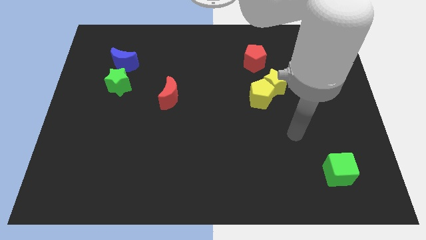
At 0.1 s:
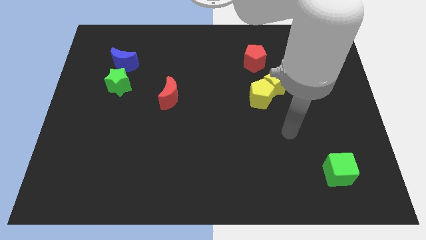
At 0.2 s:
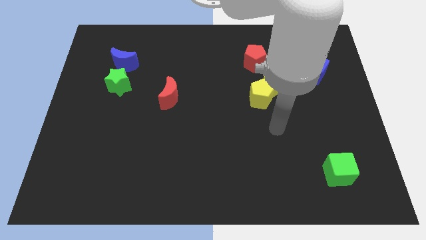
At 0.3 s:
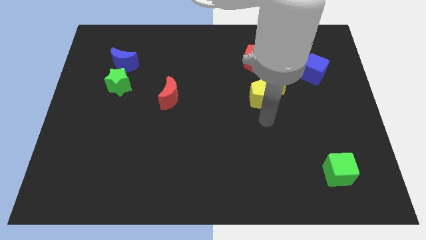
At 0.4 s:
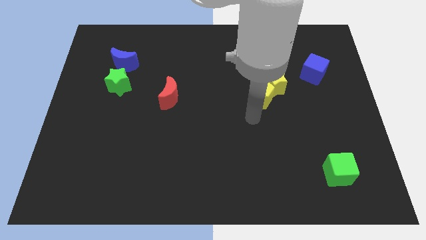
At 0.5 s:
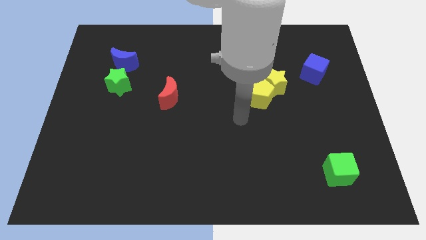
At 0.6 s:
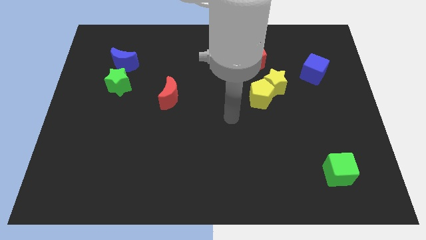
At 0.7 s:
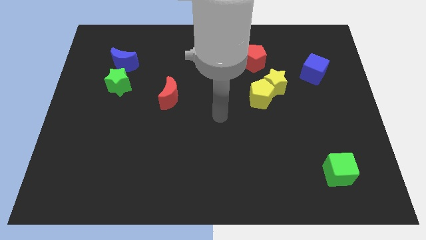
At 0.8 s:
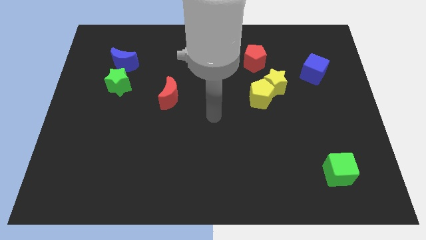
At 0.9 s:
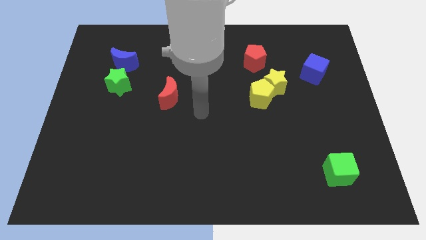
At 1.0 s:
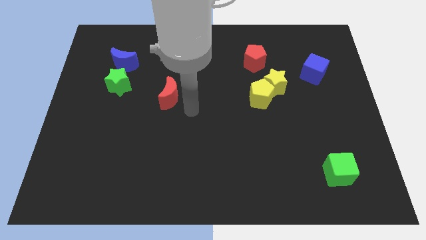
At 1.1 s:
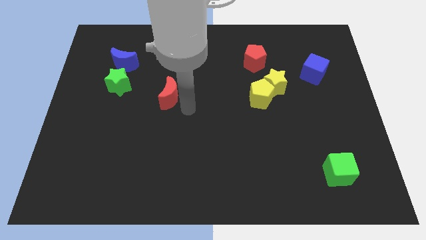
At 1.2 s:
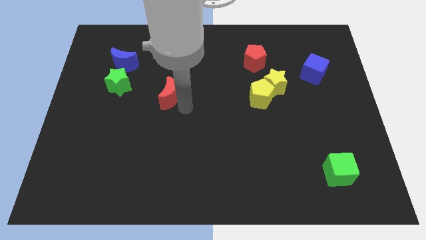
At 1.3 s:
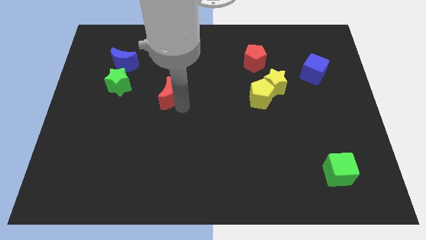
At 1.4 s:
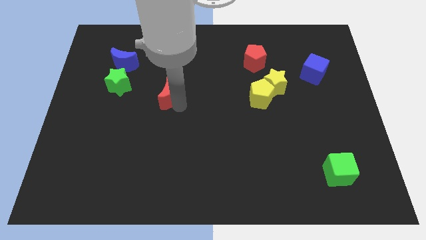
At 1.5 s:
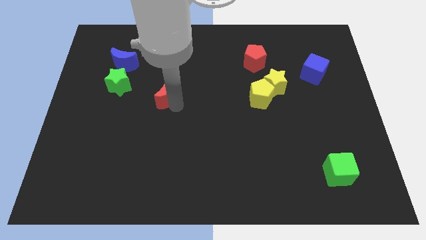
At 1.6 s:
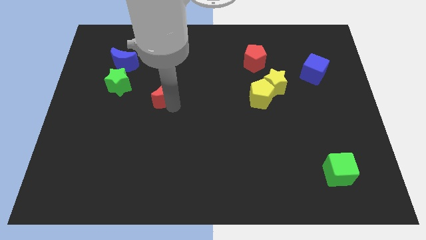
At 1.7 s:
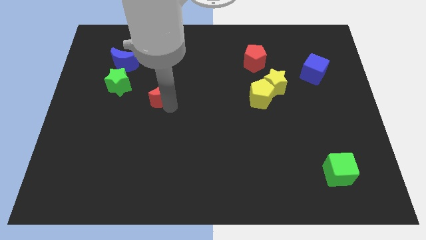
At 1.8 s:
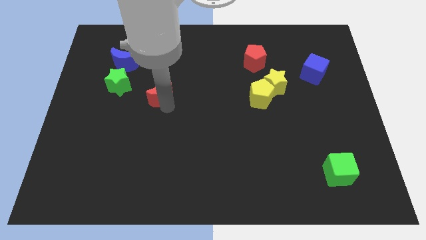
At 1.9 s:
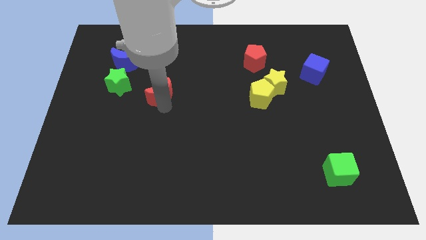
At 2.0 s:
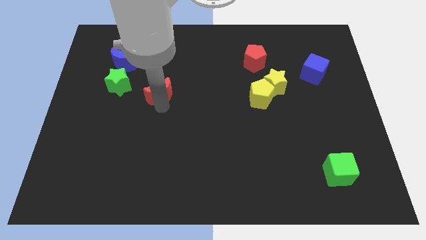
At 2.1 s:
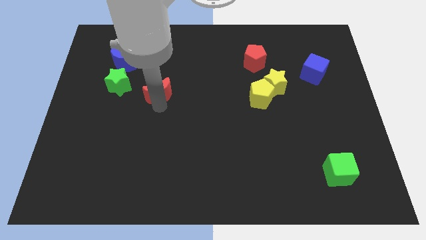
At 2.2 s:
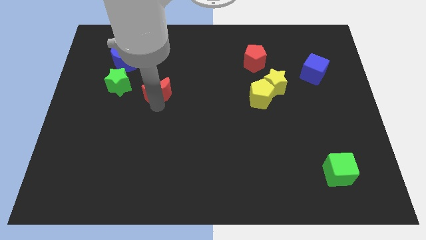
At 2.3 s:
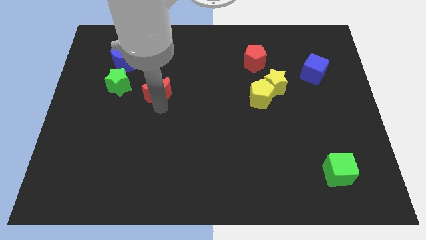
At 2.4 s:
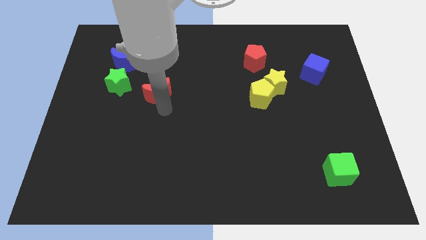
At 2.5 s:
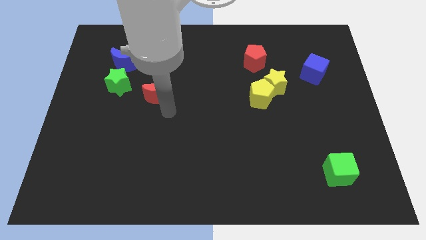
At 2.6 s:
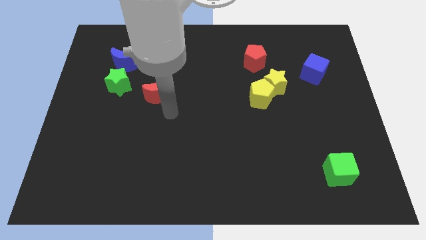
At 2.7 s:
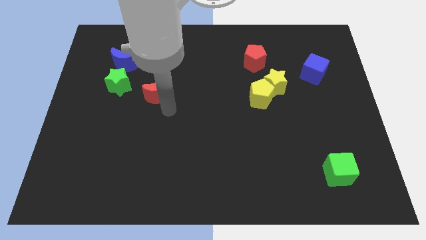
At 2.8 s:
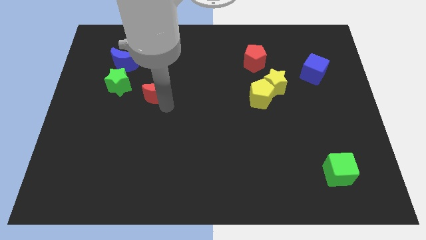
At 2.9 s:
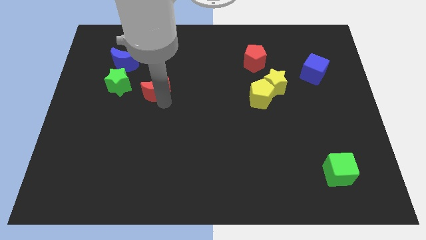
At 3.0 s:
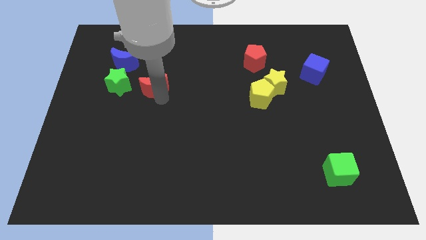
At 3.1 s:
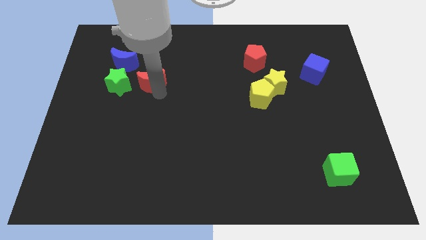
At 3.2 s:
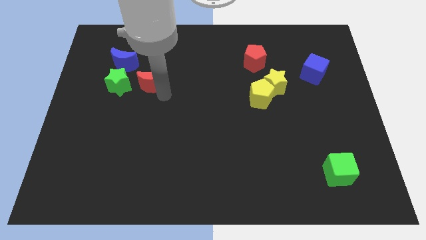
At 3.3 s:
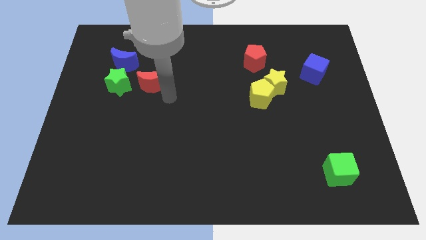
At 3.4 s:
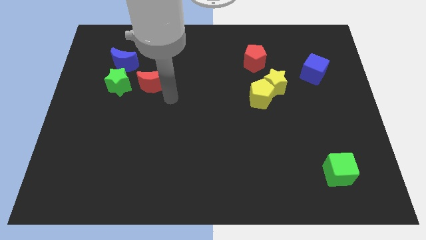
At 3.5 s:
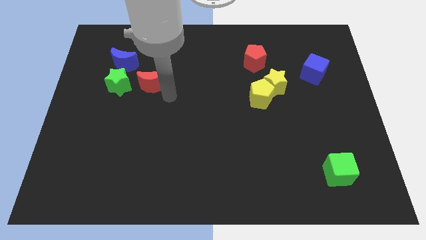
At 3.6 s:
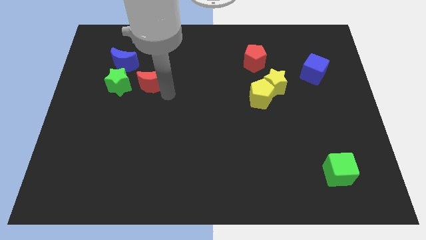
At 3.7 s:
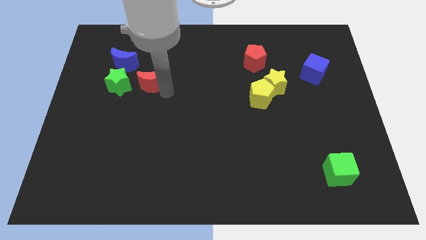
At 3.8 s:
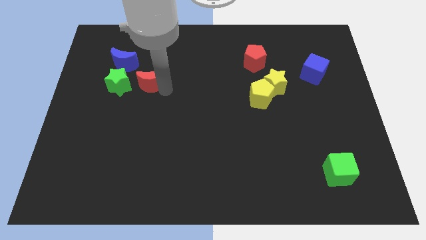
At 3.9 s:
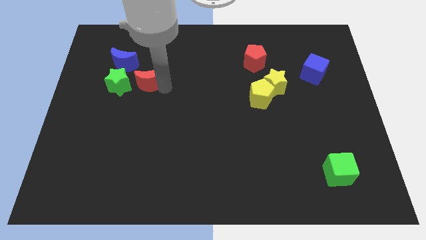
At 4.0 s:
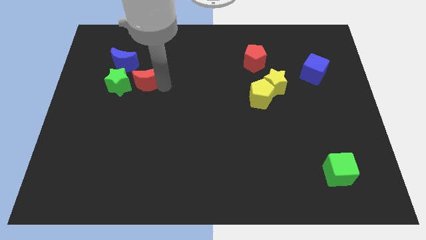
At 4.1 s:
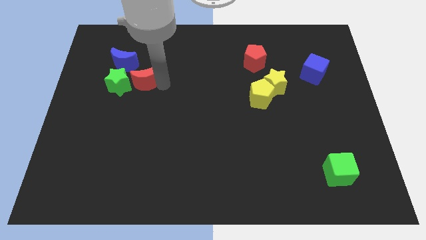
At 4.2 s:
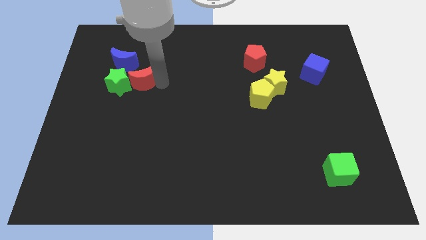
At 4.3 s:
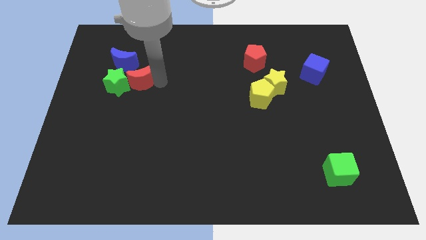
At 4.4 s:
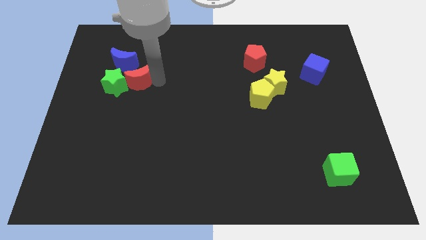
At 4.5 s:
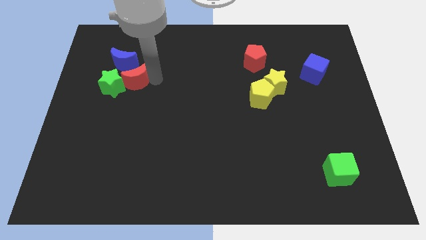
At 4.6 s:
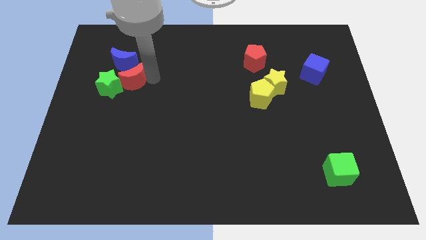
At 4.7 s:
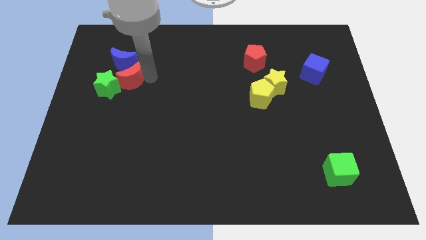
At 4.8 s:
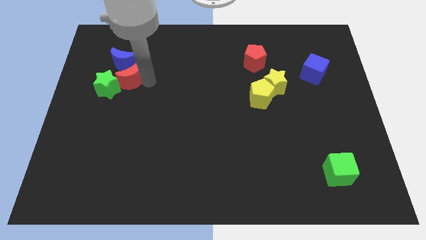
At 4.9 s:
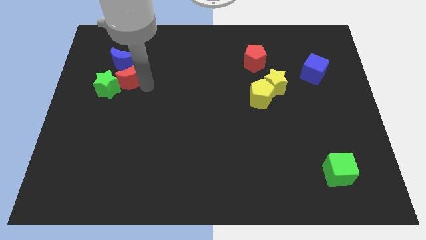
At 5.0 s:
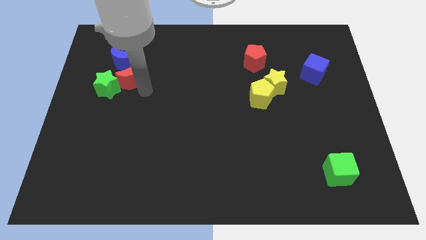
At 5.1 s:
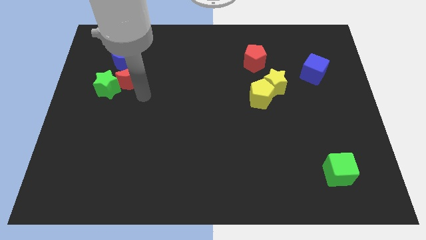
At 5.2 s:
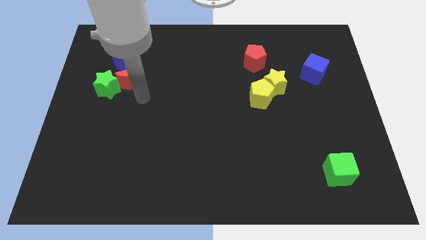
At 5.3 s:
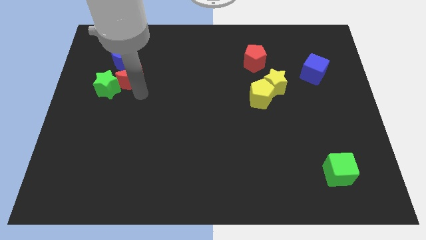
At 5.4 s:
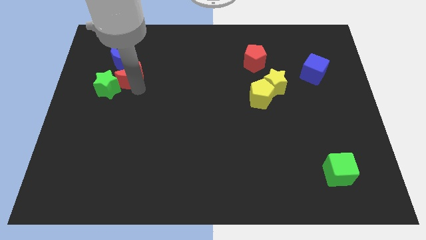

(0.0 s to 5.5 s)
move the red moon towards the blue moon

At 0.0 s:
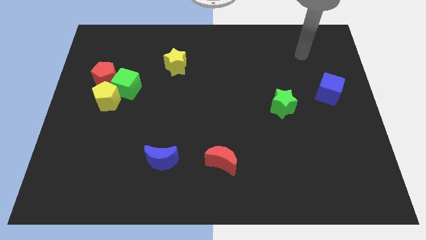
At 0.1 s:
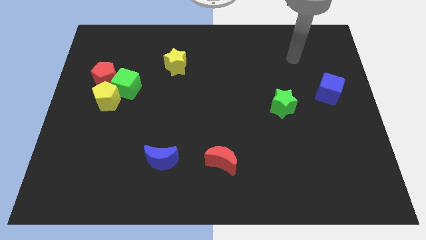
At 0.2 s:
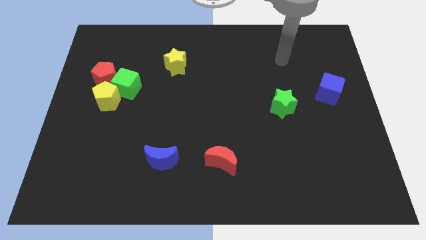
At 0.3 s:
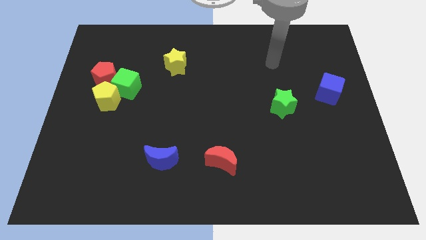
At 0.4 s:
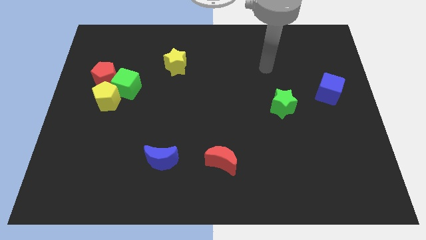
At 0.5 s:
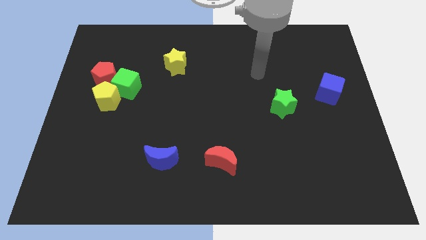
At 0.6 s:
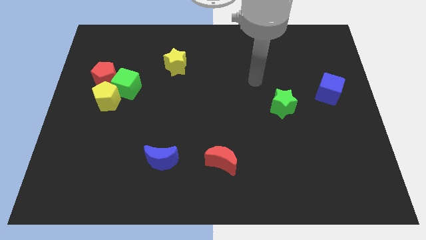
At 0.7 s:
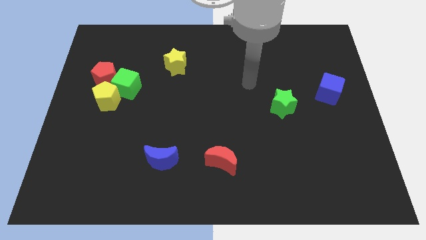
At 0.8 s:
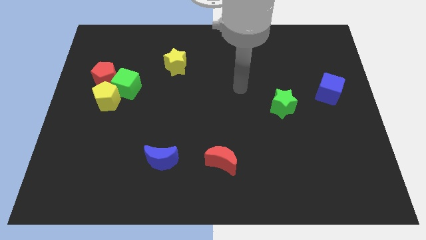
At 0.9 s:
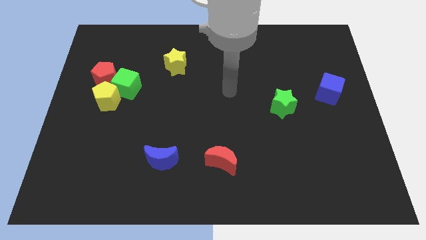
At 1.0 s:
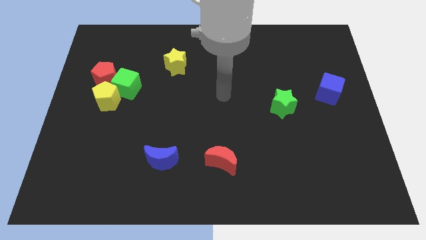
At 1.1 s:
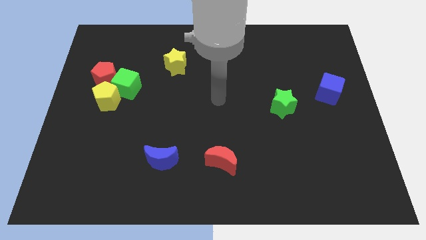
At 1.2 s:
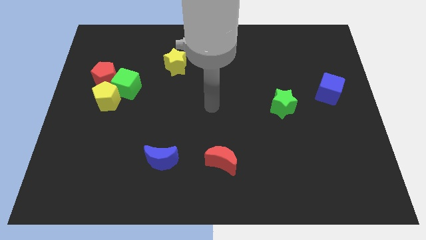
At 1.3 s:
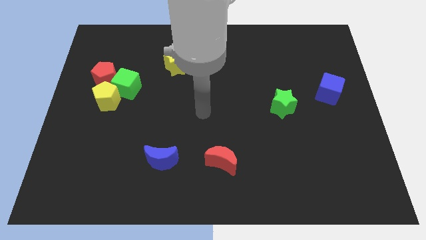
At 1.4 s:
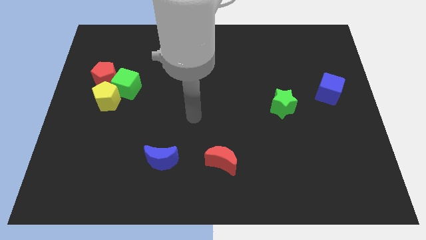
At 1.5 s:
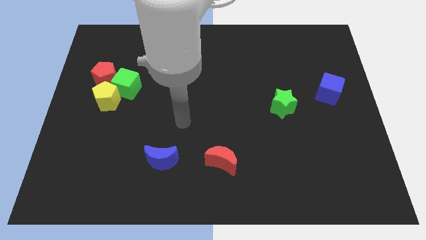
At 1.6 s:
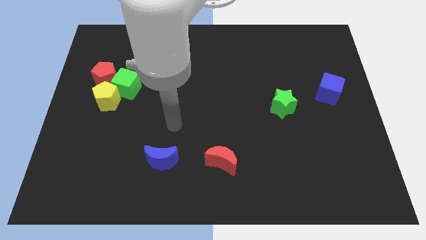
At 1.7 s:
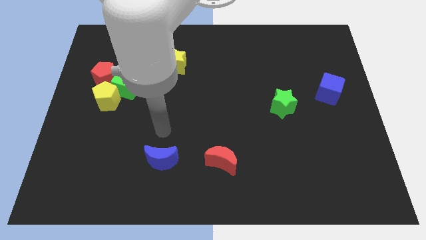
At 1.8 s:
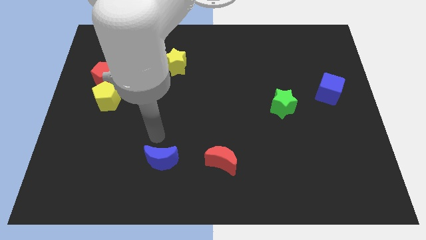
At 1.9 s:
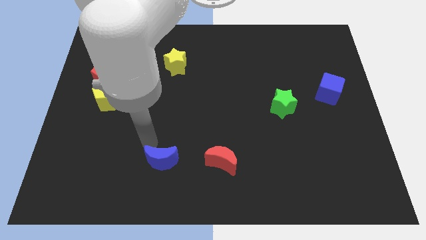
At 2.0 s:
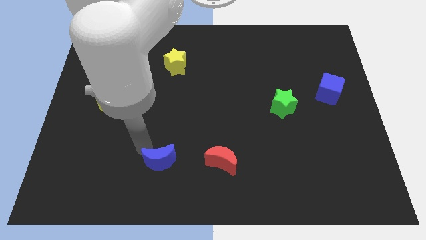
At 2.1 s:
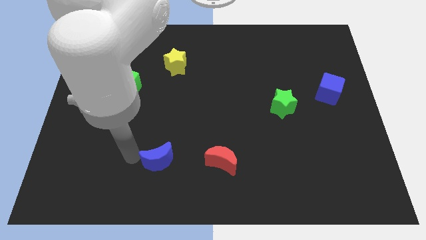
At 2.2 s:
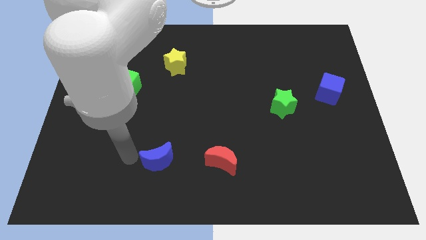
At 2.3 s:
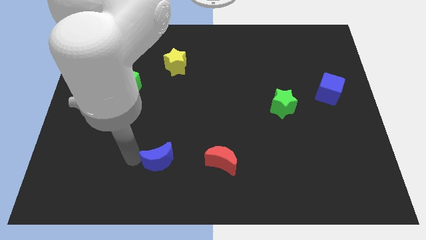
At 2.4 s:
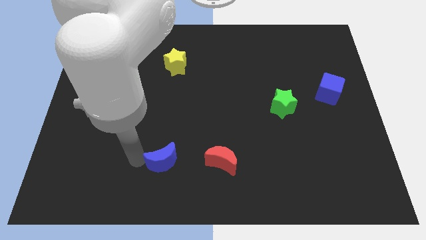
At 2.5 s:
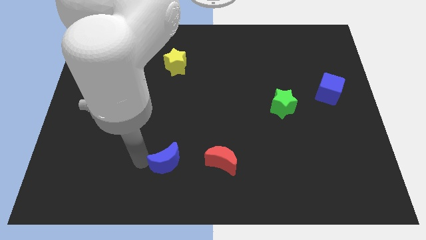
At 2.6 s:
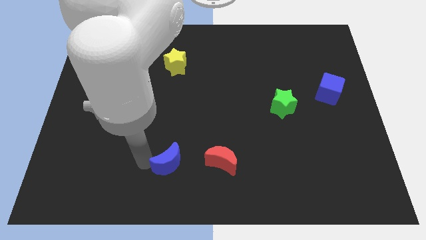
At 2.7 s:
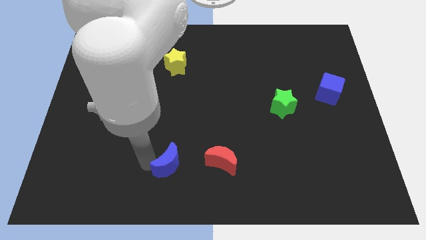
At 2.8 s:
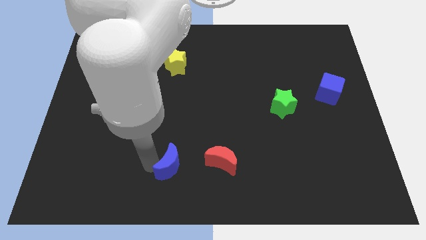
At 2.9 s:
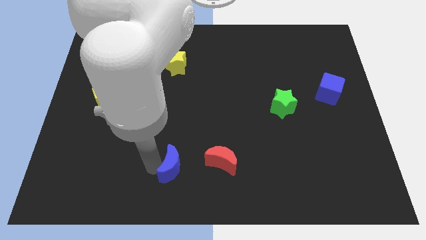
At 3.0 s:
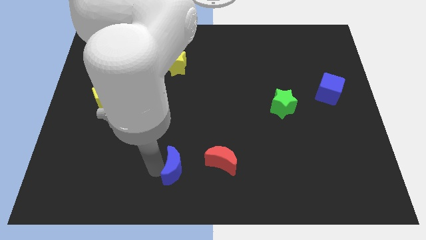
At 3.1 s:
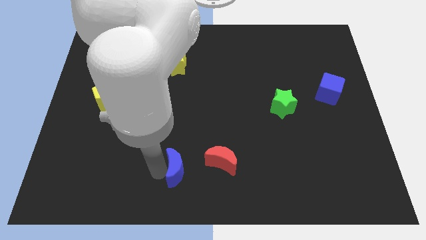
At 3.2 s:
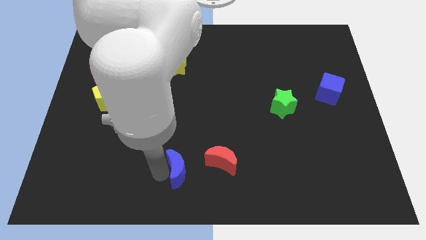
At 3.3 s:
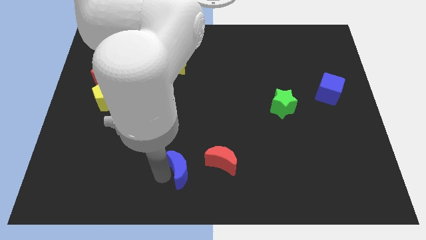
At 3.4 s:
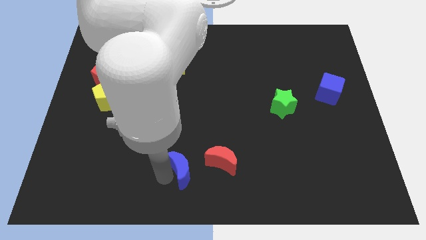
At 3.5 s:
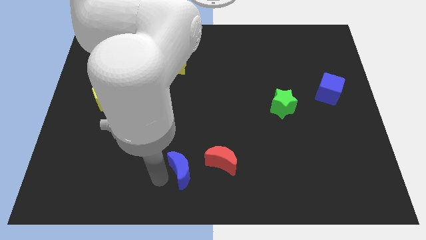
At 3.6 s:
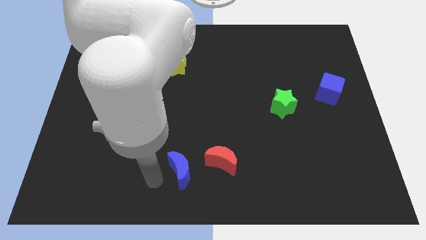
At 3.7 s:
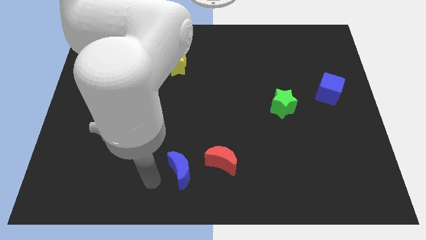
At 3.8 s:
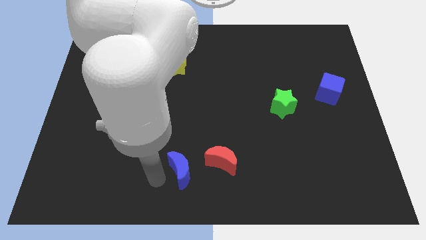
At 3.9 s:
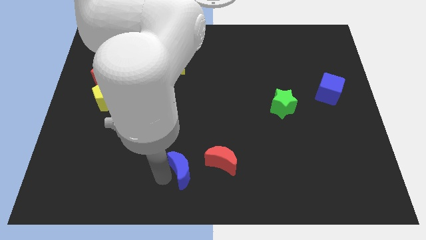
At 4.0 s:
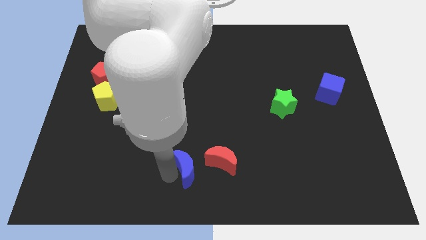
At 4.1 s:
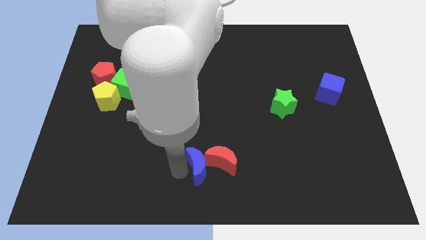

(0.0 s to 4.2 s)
put the blue moon close to the red moon
